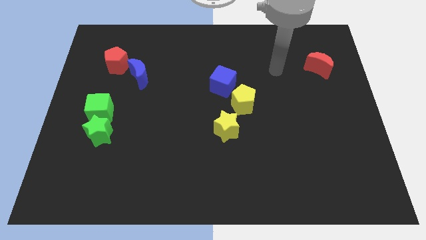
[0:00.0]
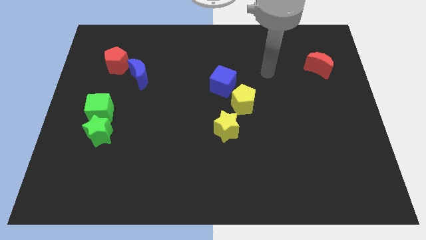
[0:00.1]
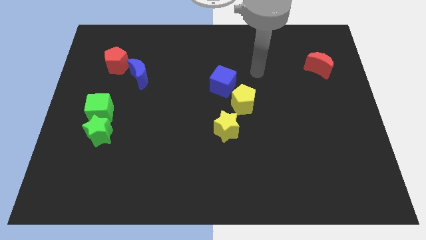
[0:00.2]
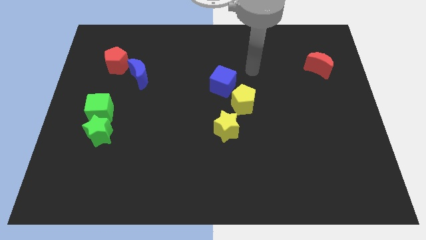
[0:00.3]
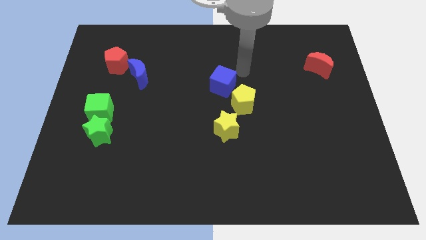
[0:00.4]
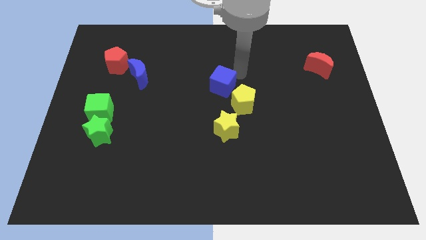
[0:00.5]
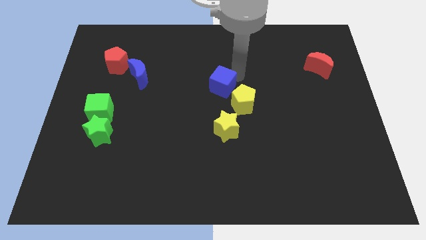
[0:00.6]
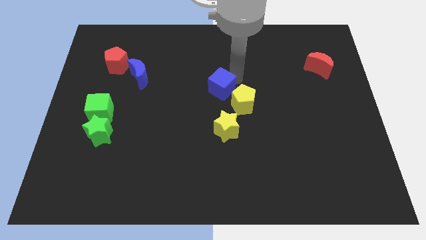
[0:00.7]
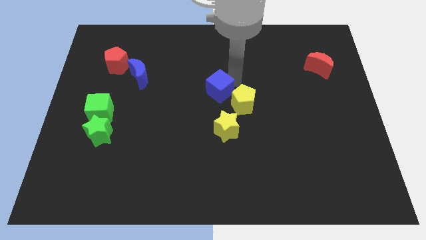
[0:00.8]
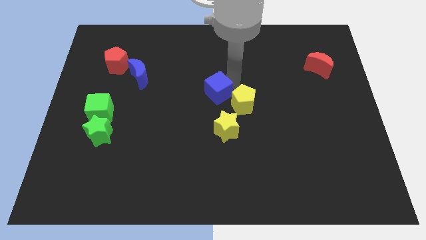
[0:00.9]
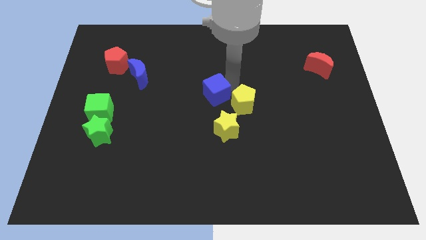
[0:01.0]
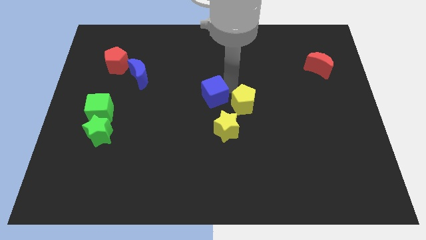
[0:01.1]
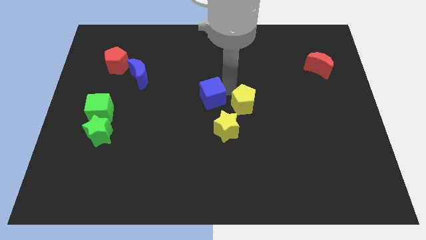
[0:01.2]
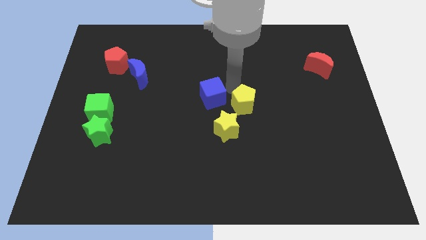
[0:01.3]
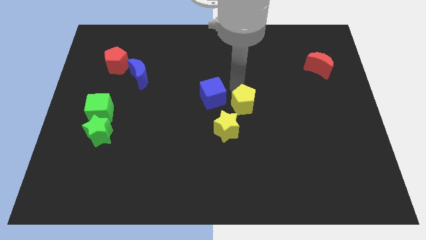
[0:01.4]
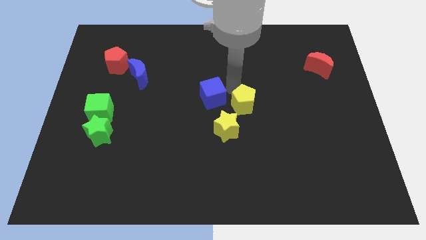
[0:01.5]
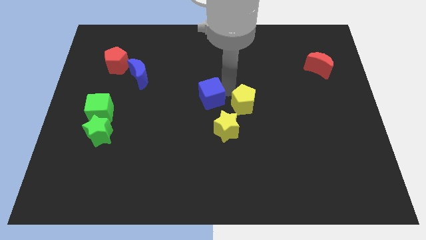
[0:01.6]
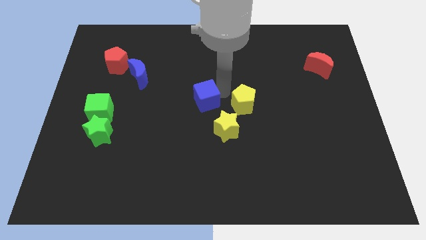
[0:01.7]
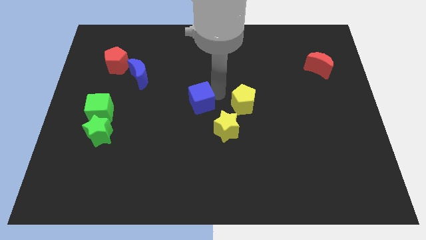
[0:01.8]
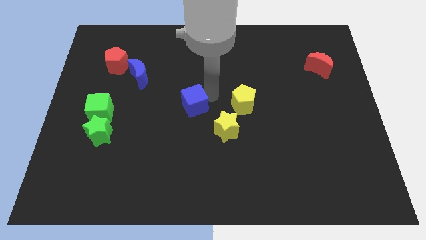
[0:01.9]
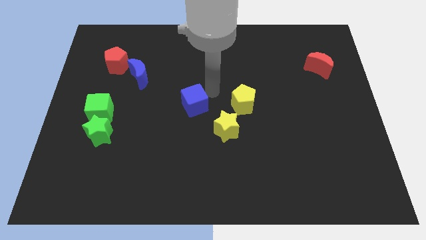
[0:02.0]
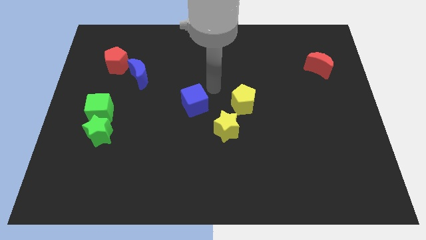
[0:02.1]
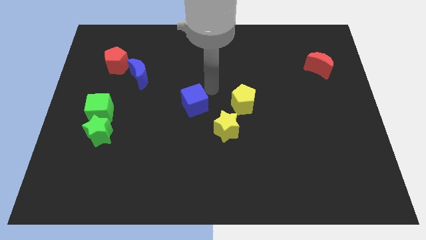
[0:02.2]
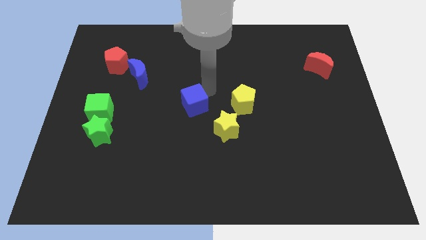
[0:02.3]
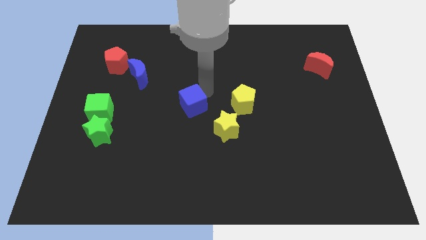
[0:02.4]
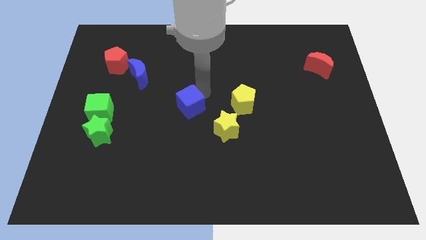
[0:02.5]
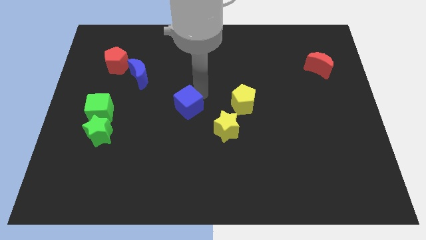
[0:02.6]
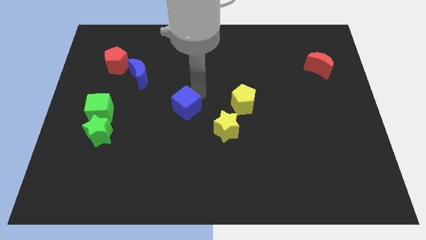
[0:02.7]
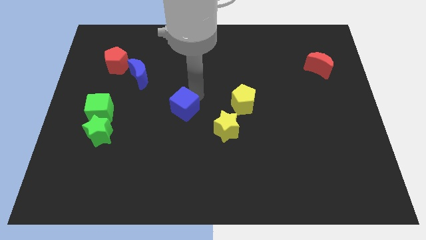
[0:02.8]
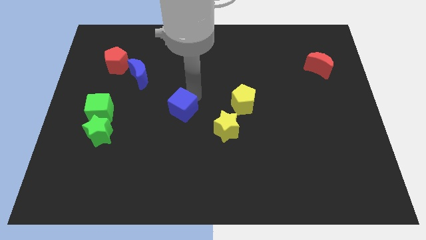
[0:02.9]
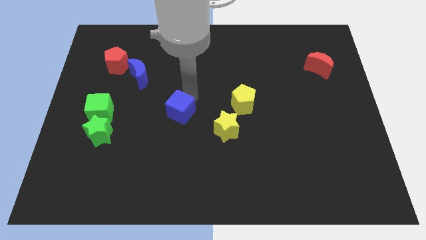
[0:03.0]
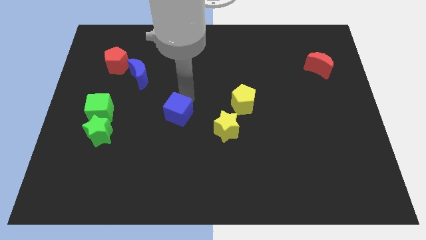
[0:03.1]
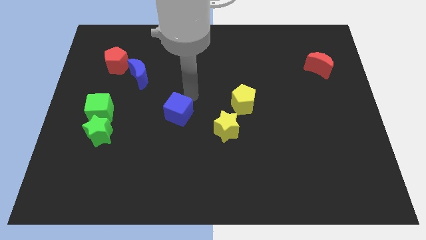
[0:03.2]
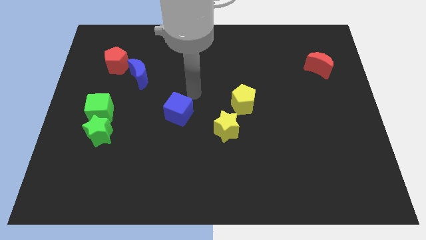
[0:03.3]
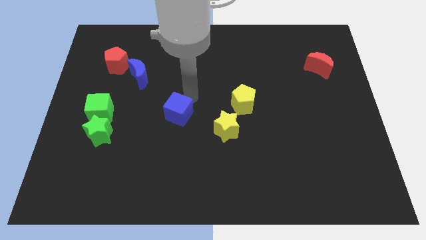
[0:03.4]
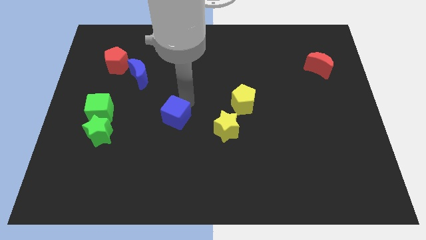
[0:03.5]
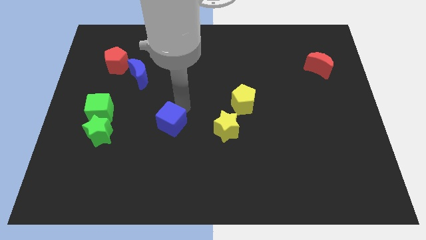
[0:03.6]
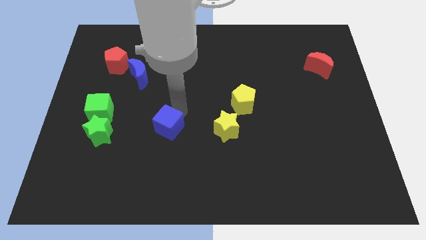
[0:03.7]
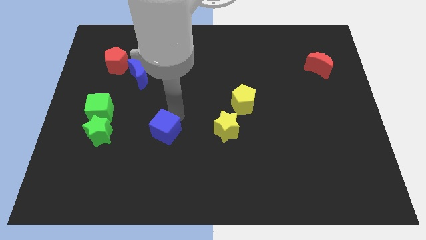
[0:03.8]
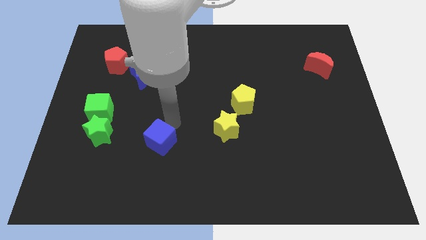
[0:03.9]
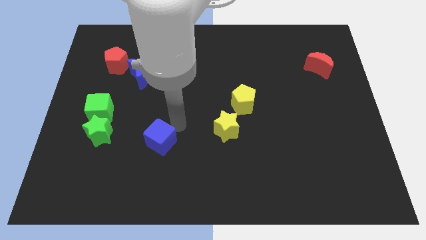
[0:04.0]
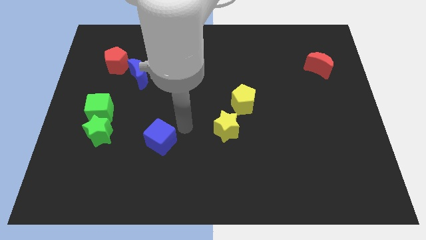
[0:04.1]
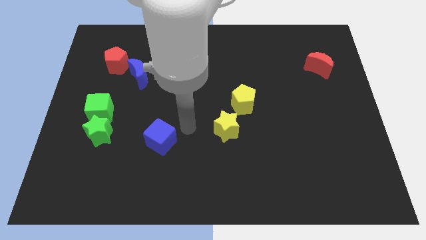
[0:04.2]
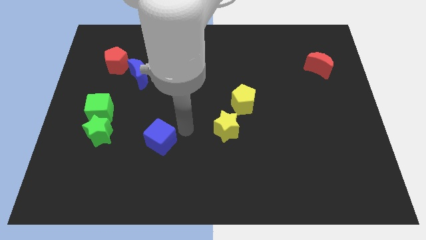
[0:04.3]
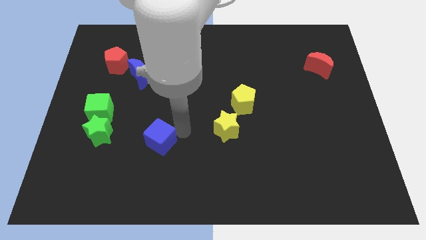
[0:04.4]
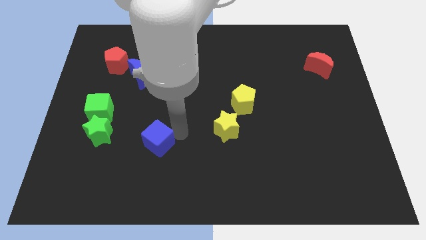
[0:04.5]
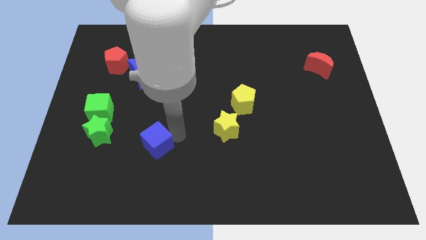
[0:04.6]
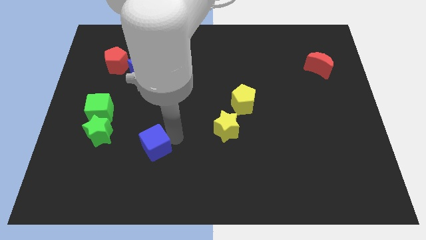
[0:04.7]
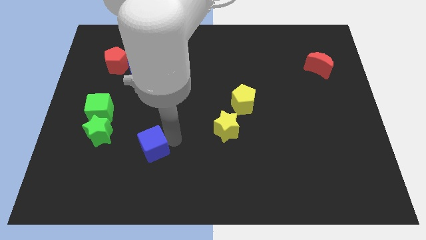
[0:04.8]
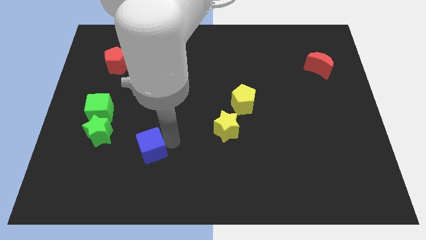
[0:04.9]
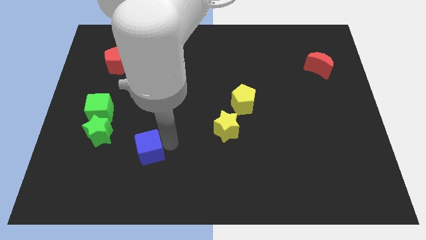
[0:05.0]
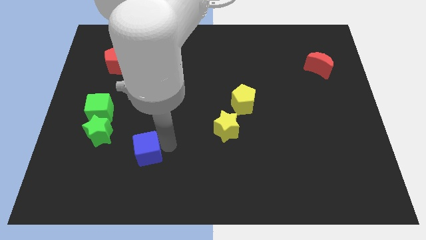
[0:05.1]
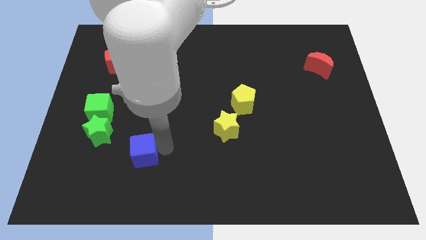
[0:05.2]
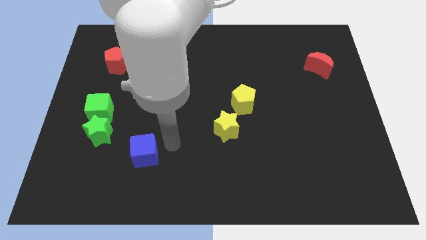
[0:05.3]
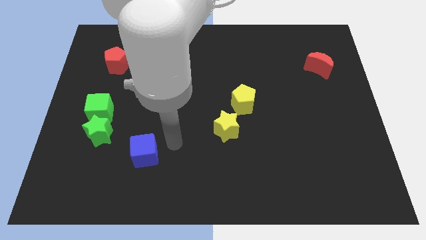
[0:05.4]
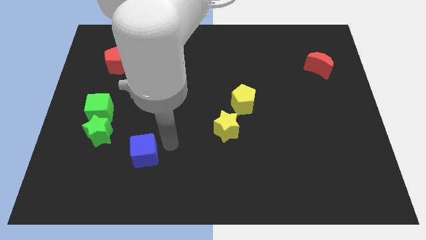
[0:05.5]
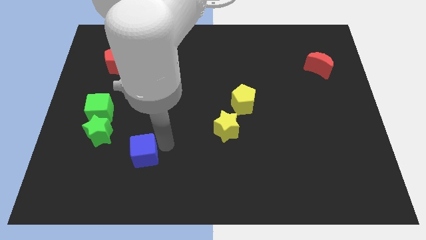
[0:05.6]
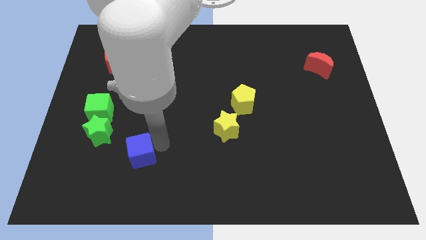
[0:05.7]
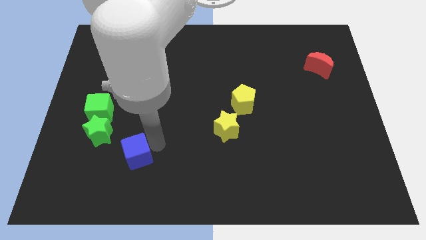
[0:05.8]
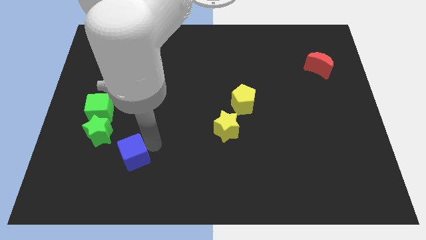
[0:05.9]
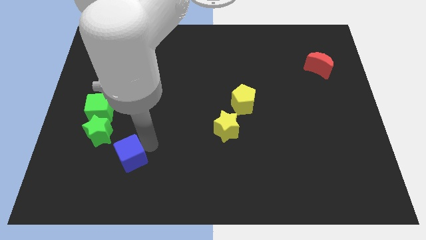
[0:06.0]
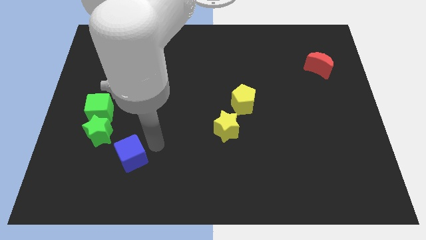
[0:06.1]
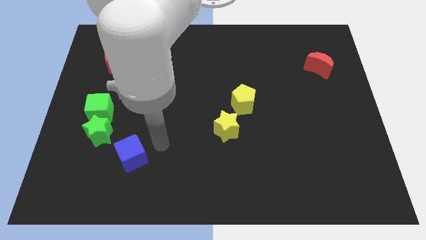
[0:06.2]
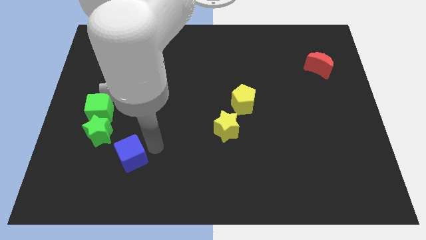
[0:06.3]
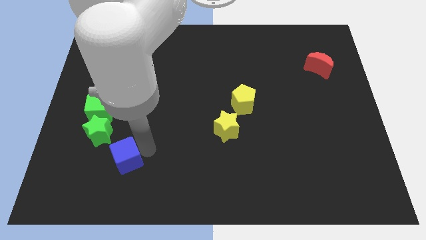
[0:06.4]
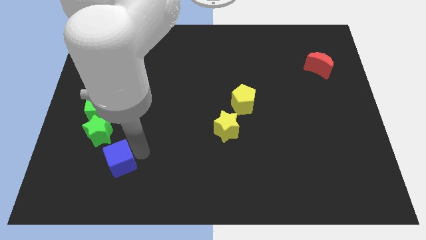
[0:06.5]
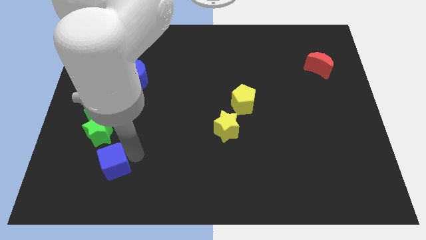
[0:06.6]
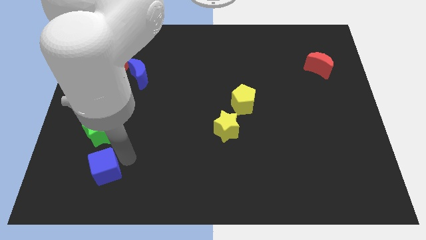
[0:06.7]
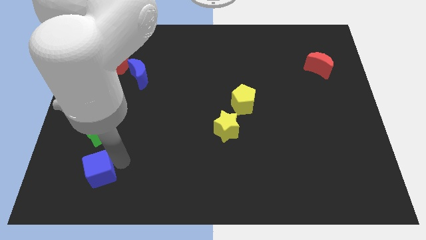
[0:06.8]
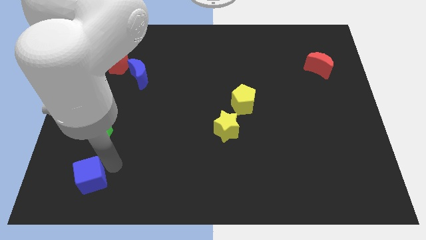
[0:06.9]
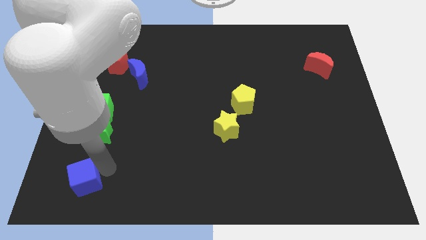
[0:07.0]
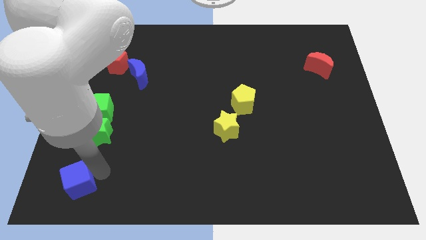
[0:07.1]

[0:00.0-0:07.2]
slide the blue cube to the bottom left
